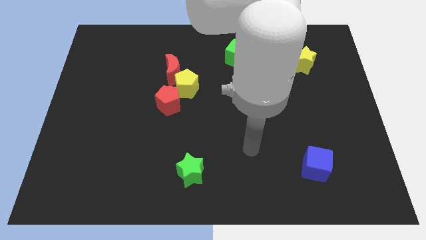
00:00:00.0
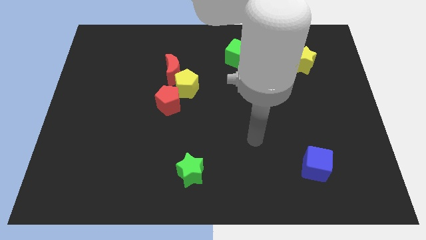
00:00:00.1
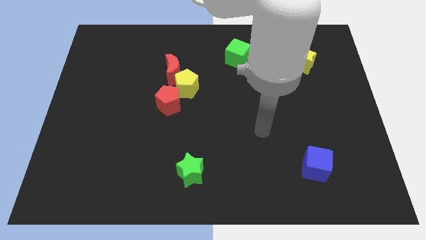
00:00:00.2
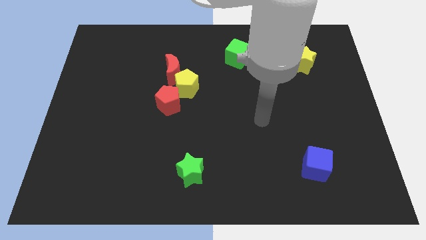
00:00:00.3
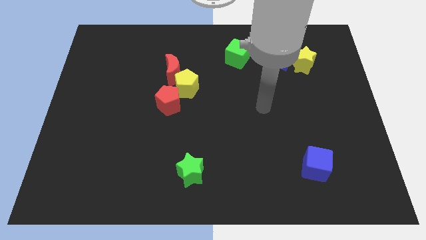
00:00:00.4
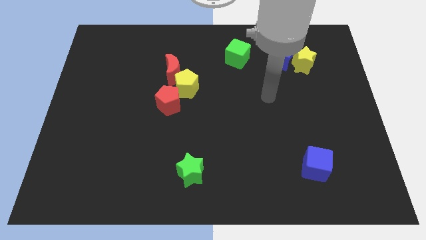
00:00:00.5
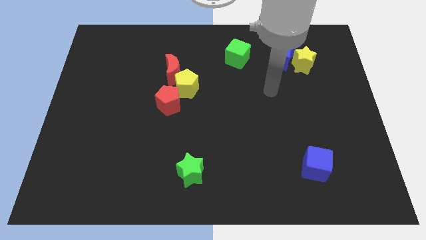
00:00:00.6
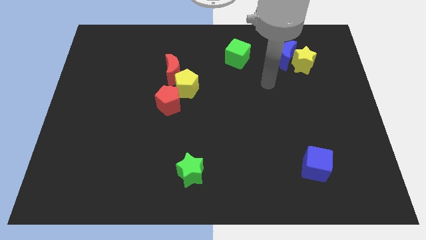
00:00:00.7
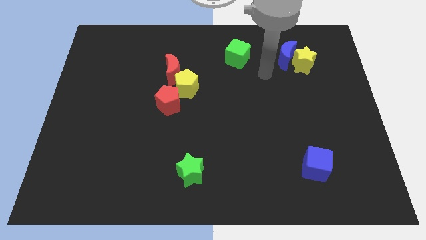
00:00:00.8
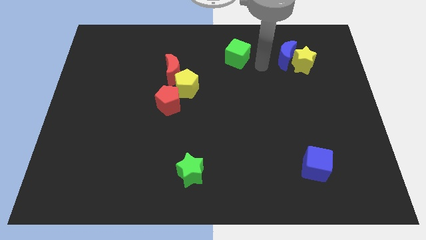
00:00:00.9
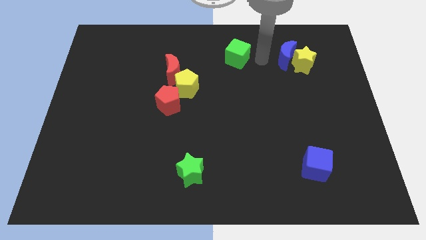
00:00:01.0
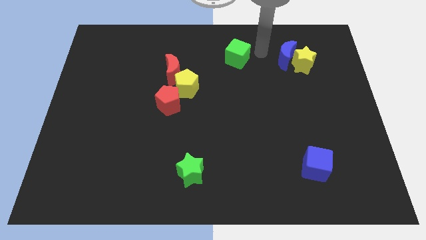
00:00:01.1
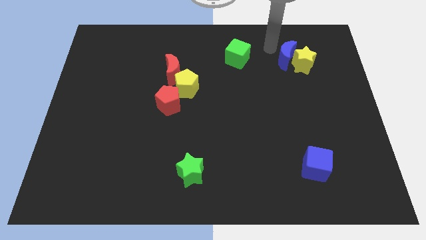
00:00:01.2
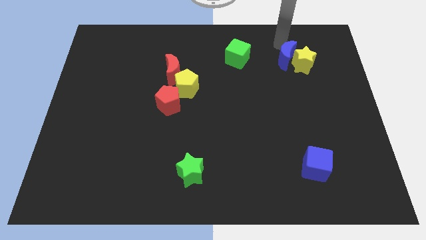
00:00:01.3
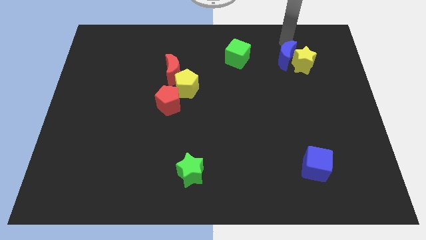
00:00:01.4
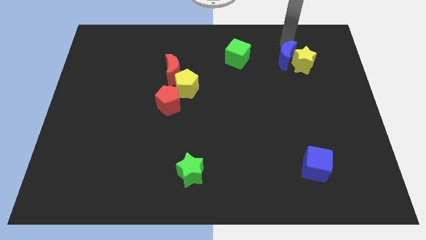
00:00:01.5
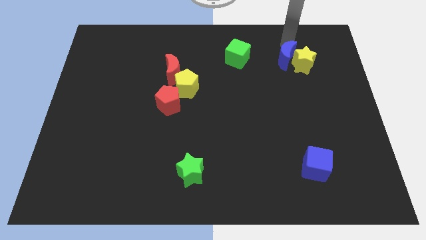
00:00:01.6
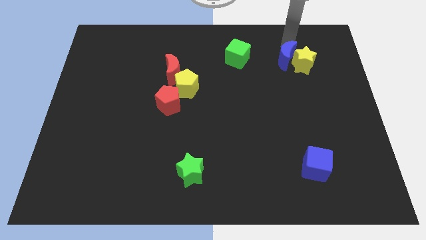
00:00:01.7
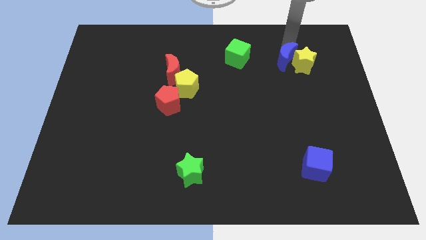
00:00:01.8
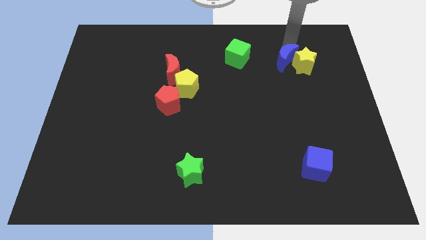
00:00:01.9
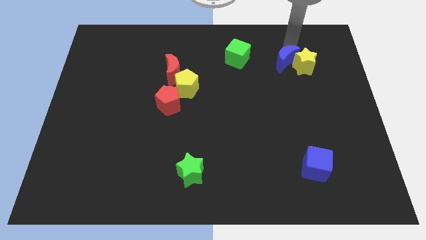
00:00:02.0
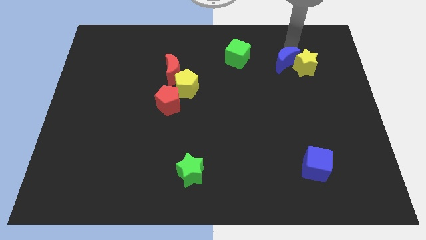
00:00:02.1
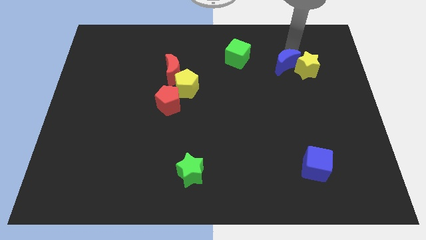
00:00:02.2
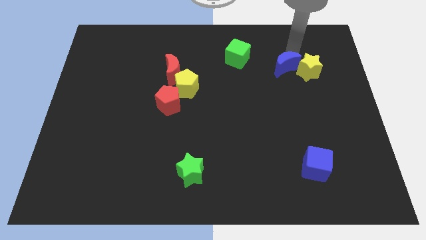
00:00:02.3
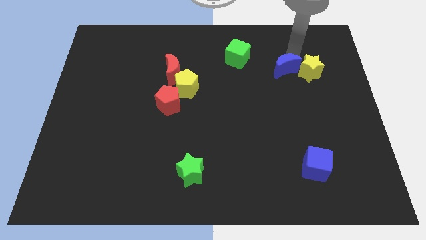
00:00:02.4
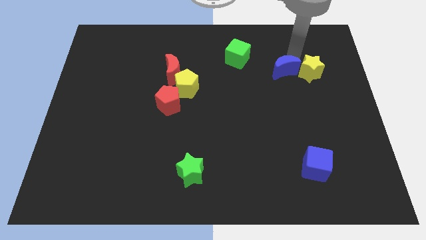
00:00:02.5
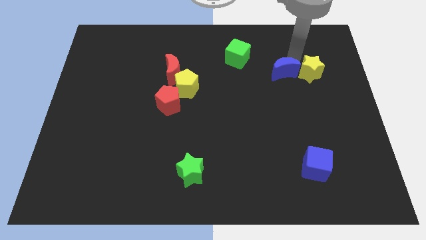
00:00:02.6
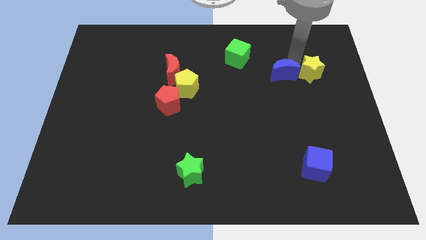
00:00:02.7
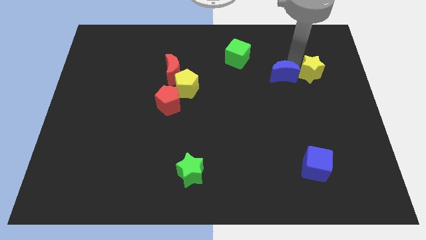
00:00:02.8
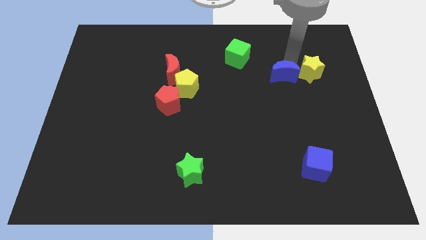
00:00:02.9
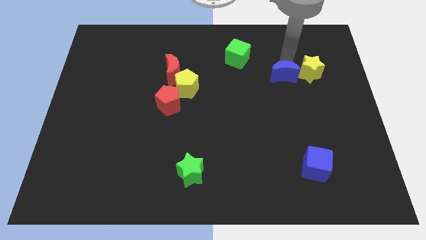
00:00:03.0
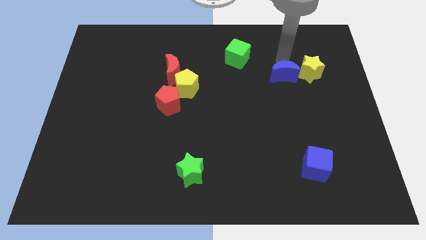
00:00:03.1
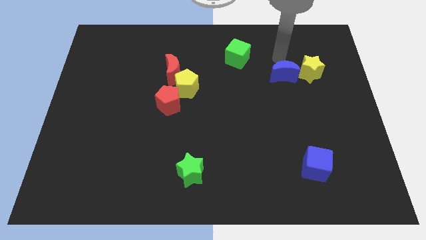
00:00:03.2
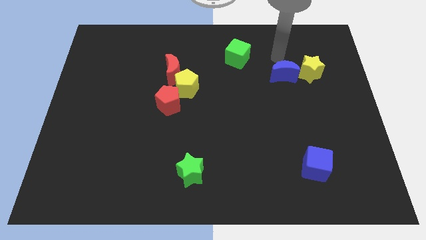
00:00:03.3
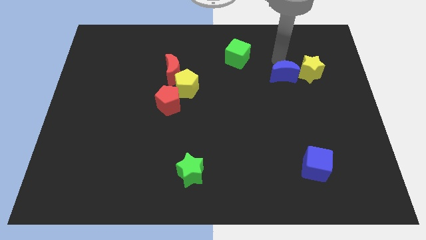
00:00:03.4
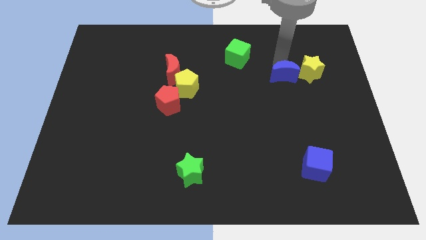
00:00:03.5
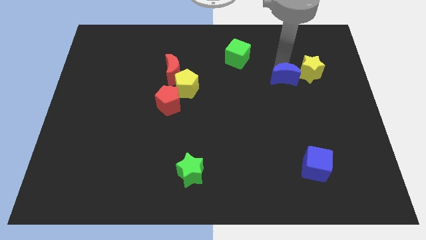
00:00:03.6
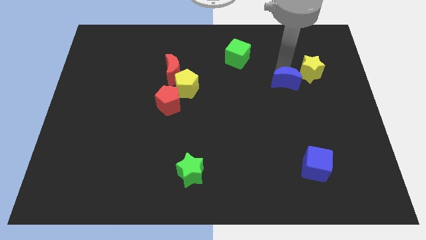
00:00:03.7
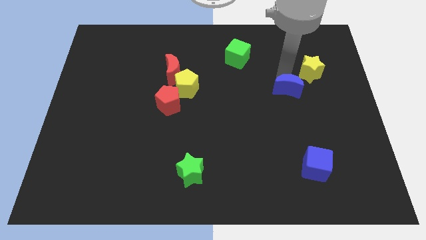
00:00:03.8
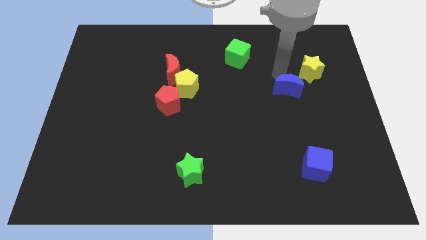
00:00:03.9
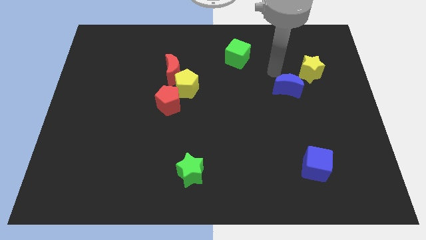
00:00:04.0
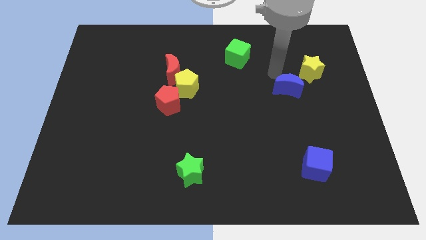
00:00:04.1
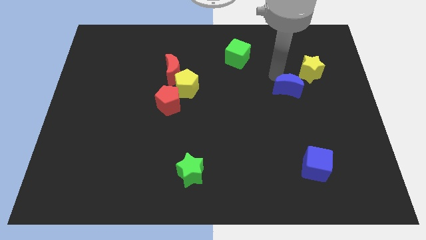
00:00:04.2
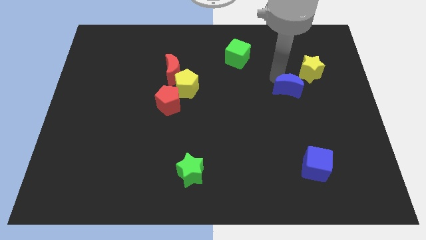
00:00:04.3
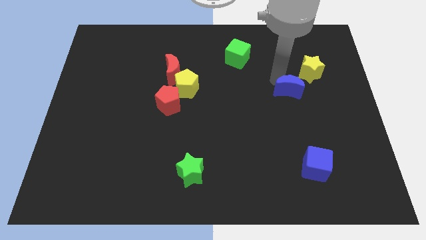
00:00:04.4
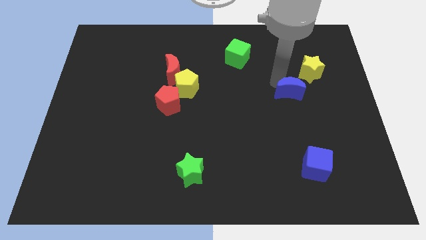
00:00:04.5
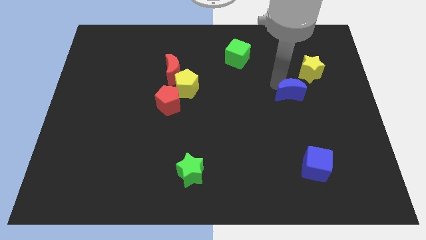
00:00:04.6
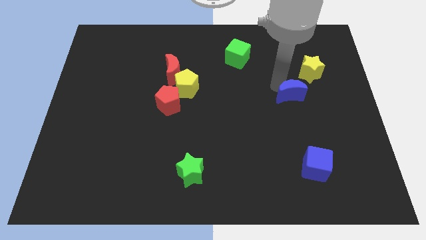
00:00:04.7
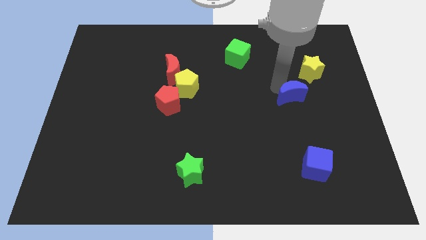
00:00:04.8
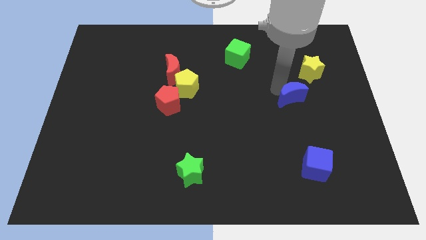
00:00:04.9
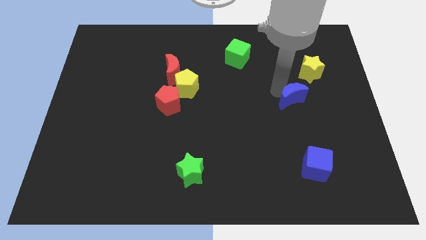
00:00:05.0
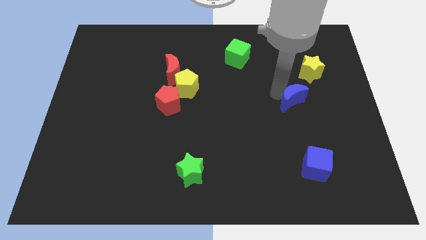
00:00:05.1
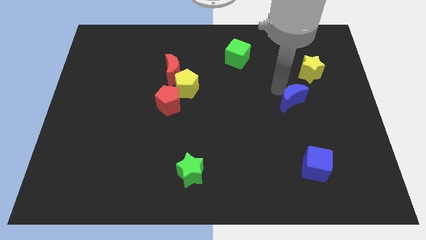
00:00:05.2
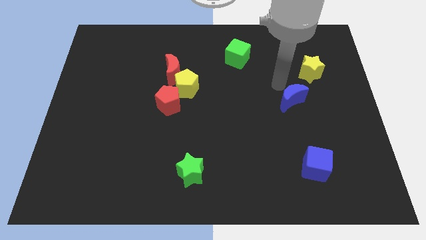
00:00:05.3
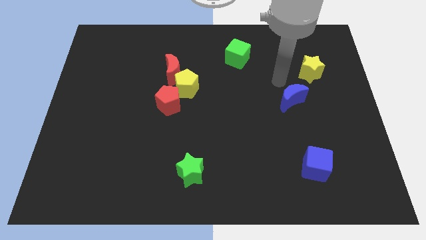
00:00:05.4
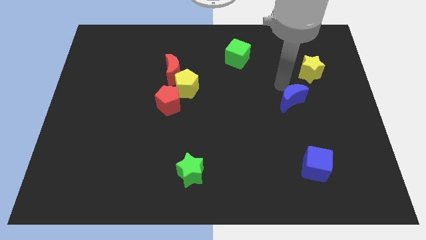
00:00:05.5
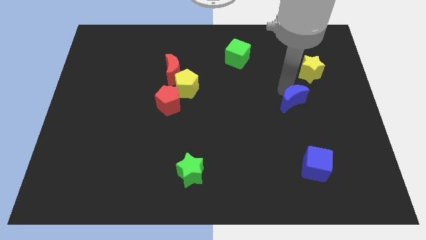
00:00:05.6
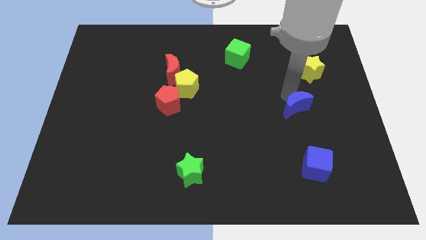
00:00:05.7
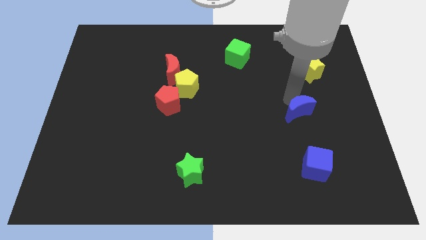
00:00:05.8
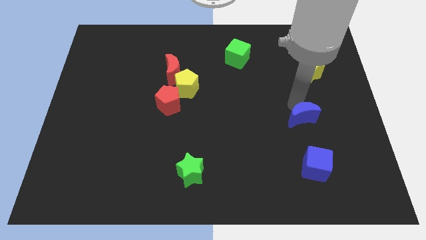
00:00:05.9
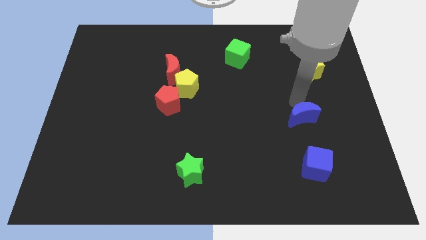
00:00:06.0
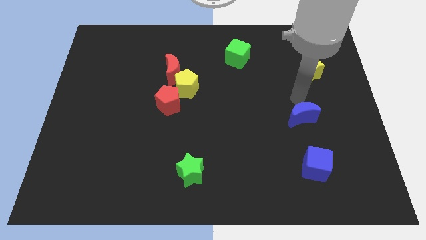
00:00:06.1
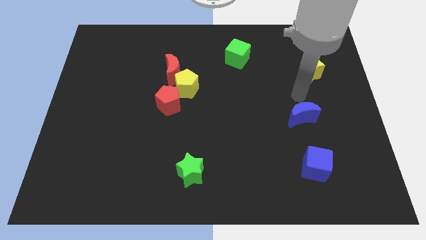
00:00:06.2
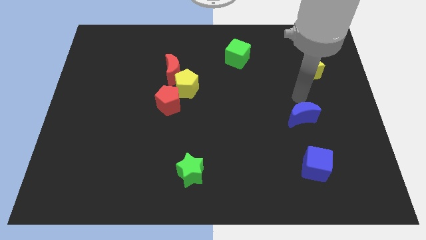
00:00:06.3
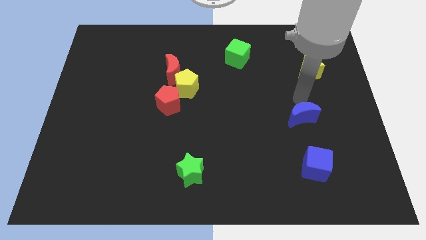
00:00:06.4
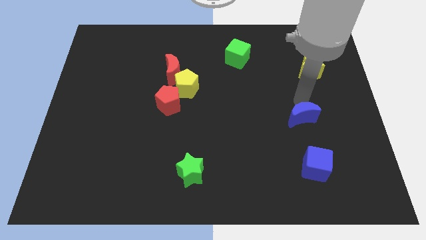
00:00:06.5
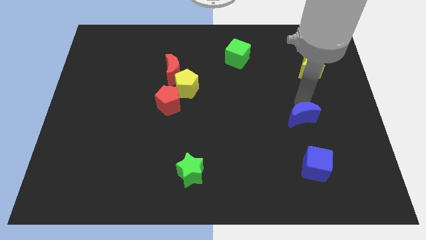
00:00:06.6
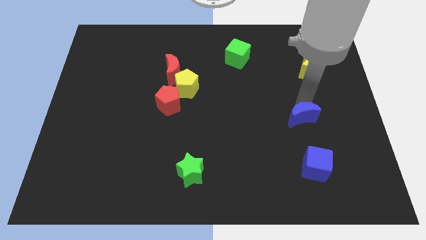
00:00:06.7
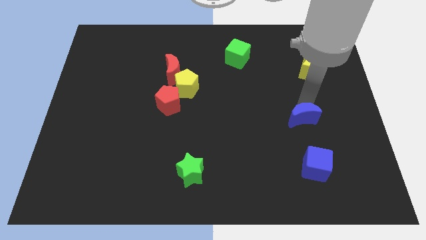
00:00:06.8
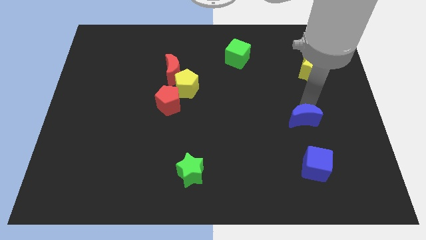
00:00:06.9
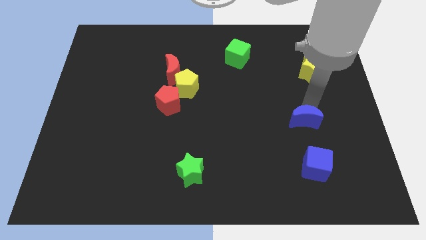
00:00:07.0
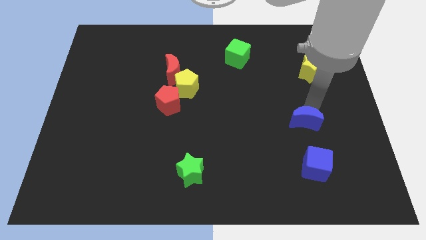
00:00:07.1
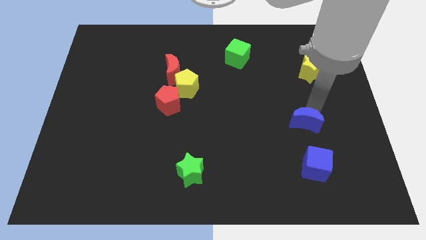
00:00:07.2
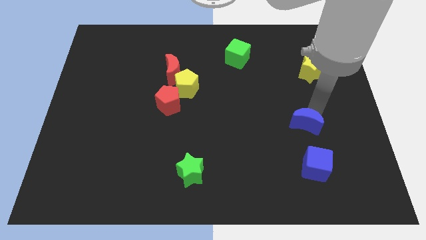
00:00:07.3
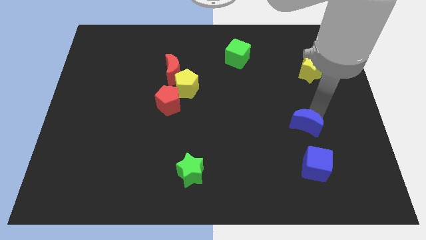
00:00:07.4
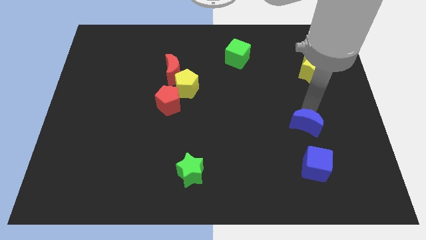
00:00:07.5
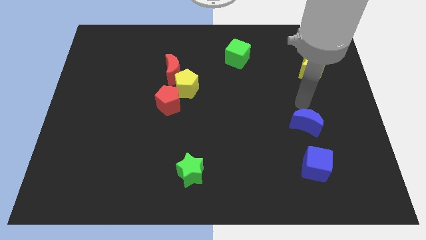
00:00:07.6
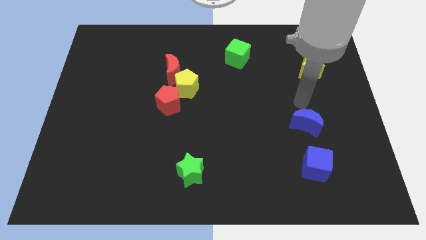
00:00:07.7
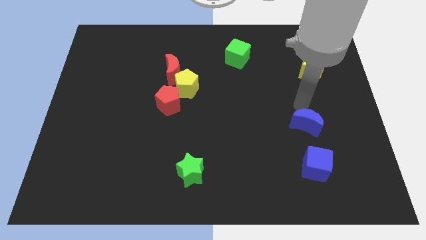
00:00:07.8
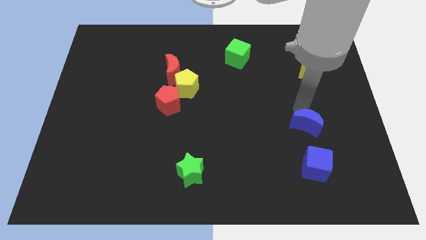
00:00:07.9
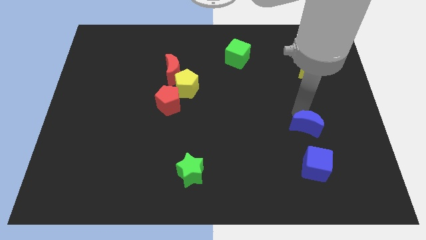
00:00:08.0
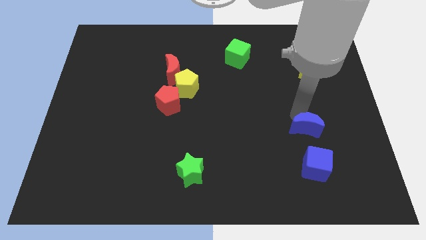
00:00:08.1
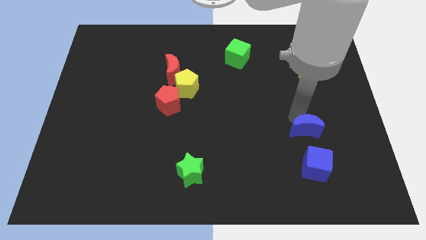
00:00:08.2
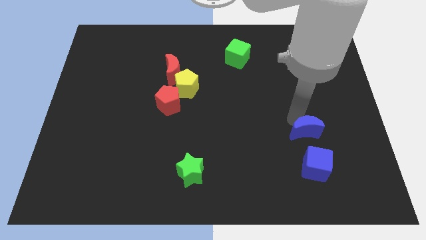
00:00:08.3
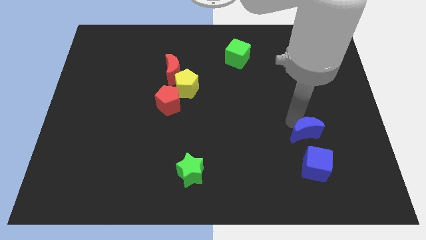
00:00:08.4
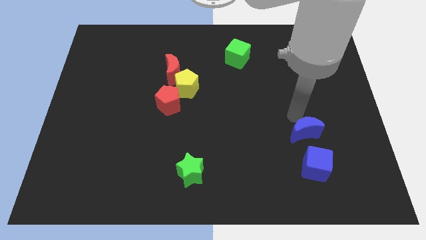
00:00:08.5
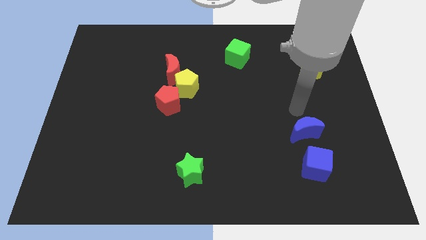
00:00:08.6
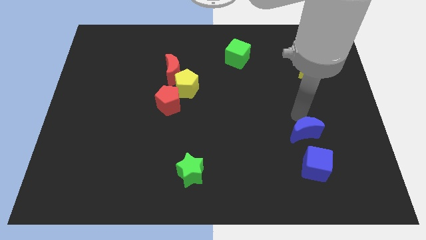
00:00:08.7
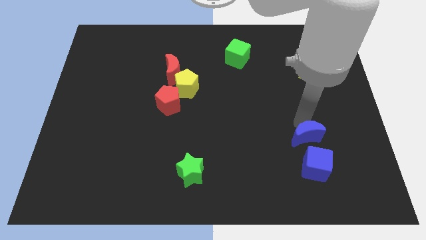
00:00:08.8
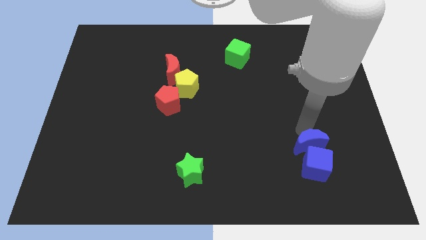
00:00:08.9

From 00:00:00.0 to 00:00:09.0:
put the blue moon towards the blue cube
